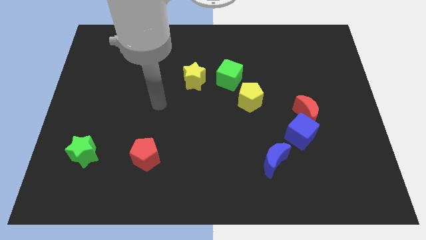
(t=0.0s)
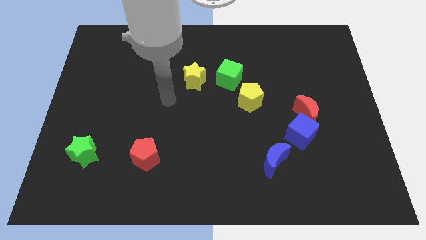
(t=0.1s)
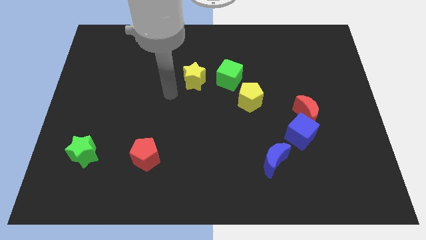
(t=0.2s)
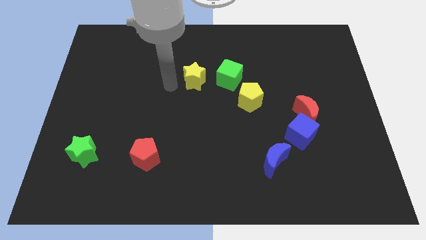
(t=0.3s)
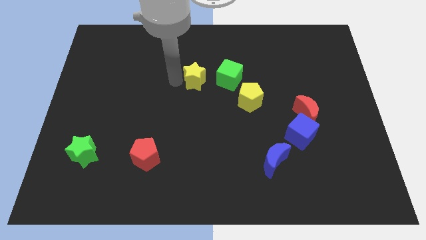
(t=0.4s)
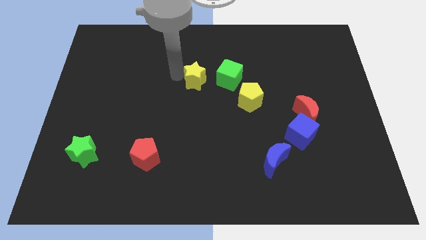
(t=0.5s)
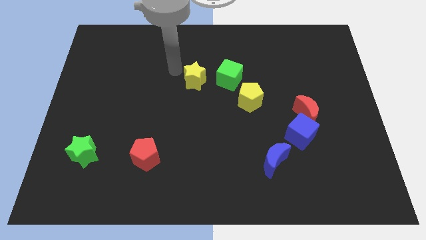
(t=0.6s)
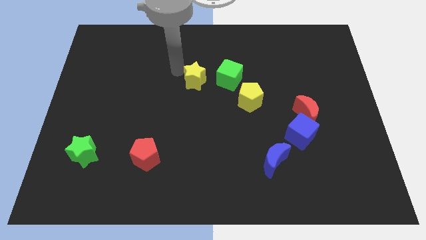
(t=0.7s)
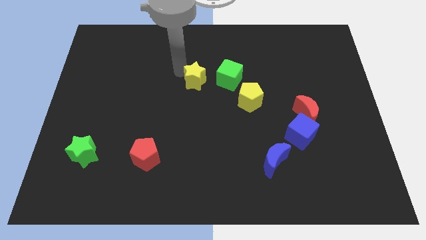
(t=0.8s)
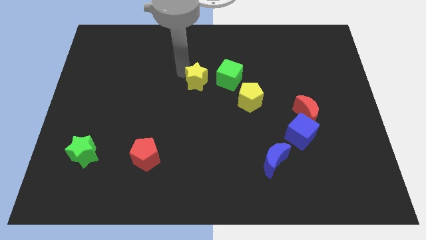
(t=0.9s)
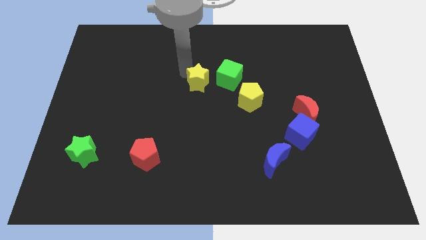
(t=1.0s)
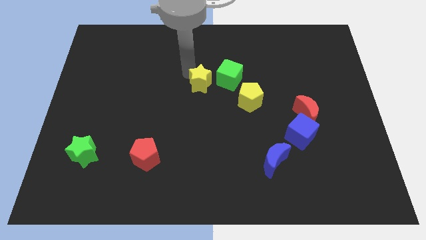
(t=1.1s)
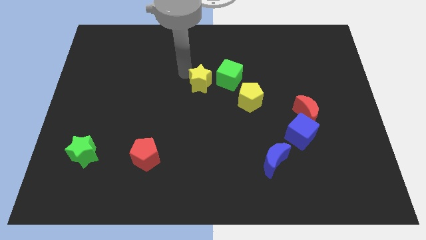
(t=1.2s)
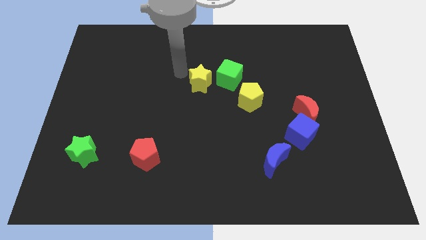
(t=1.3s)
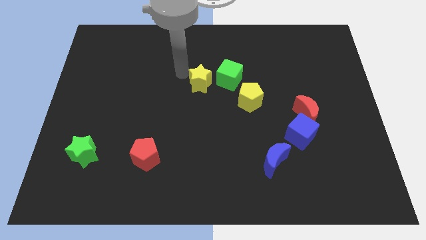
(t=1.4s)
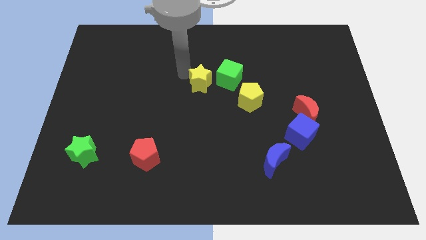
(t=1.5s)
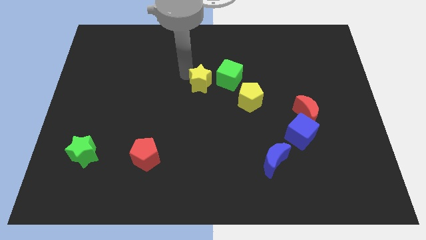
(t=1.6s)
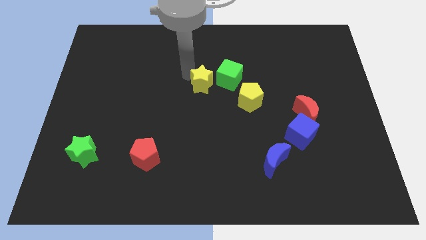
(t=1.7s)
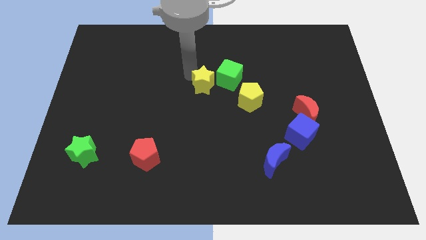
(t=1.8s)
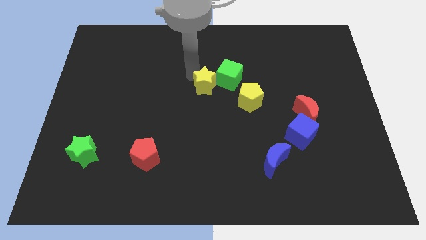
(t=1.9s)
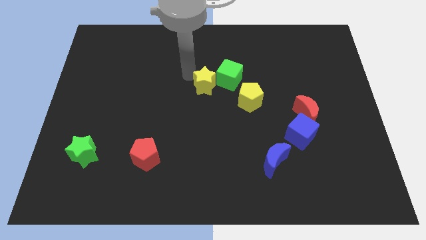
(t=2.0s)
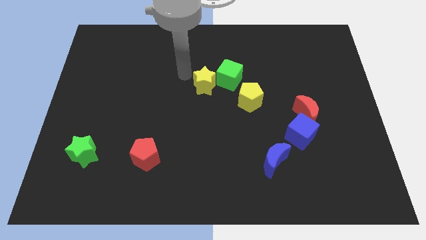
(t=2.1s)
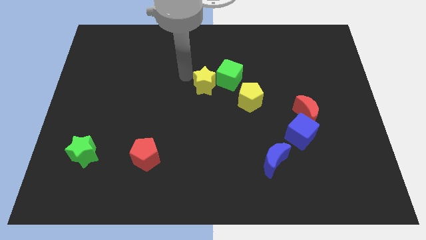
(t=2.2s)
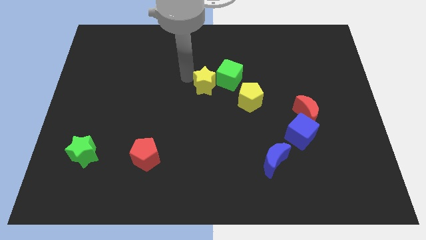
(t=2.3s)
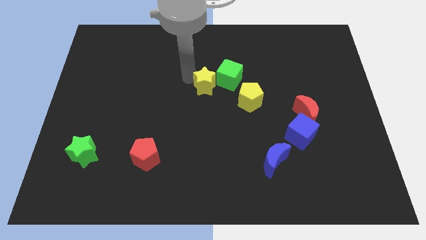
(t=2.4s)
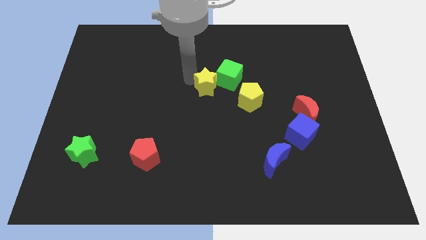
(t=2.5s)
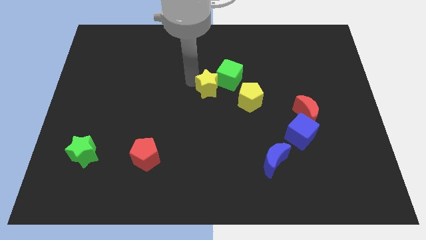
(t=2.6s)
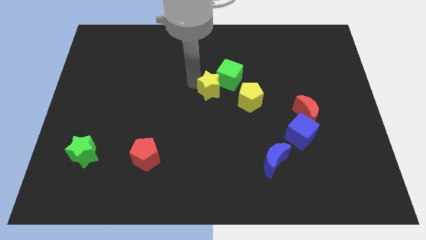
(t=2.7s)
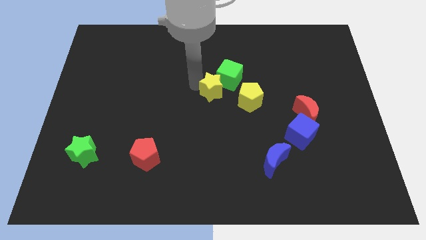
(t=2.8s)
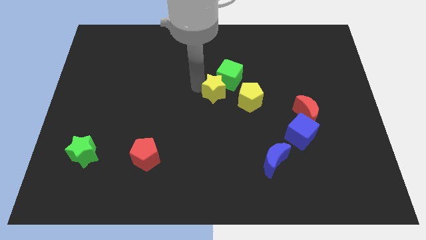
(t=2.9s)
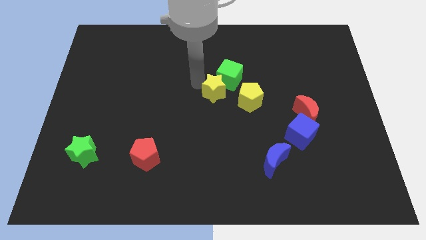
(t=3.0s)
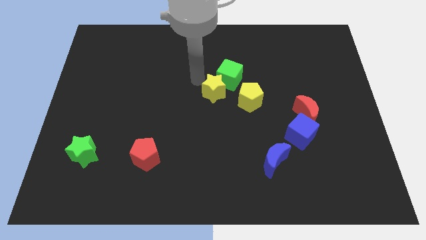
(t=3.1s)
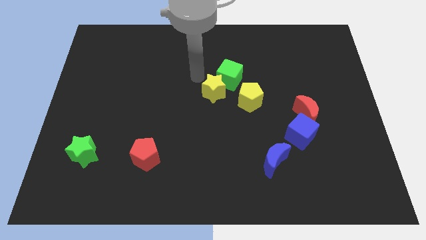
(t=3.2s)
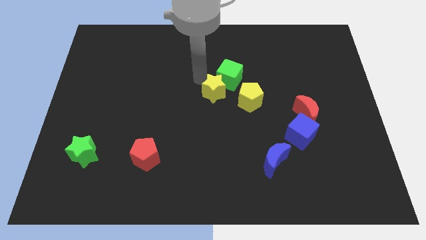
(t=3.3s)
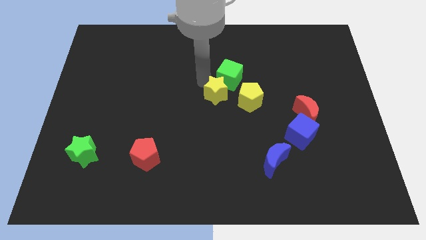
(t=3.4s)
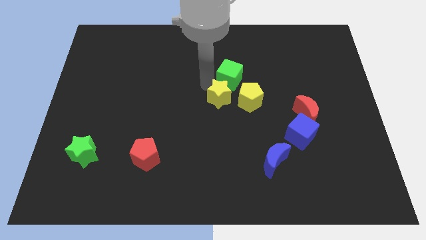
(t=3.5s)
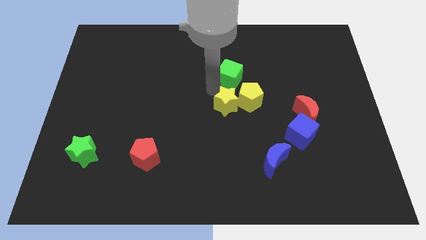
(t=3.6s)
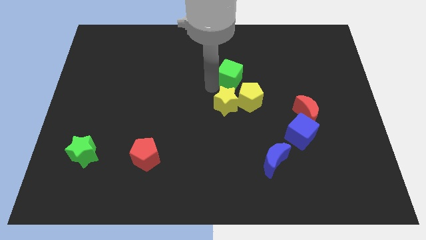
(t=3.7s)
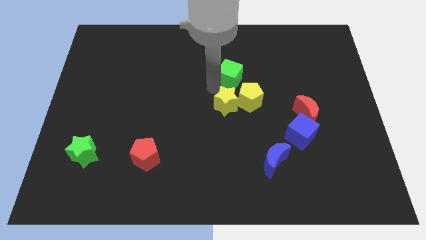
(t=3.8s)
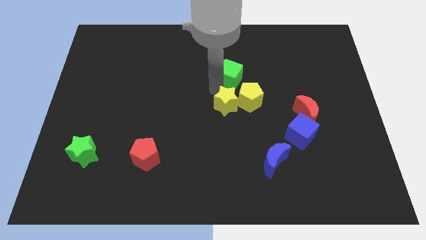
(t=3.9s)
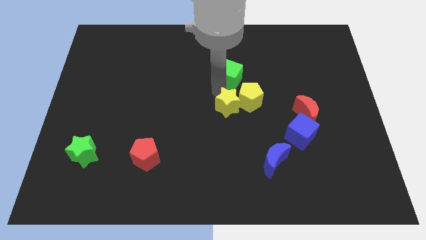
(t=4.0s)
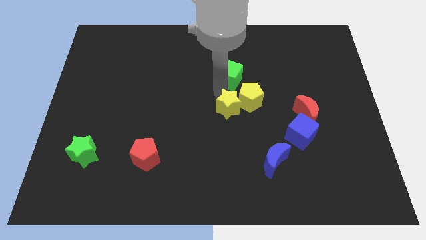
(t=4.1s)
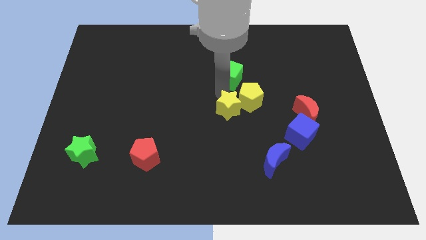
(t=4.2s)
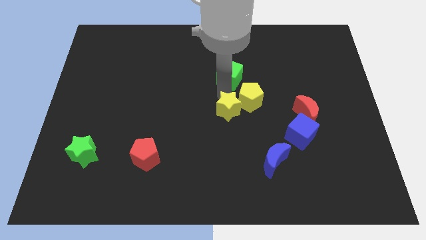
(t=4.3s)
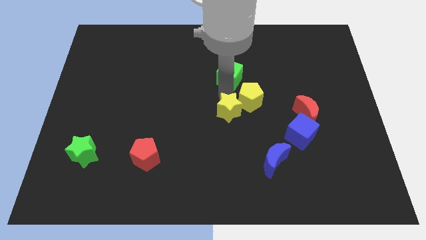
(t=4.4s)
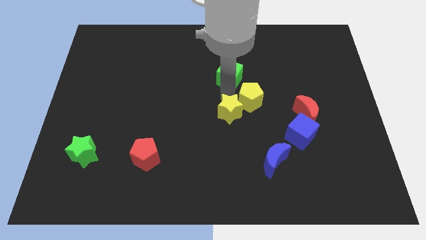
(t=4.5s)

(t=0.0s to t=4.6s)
move the yellow star to the bottom of the yellow pentagon

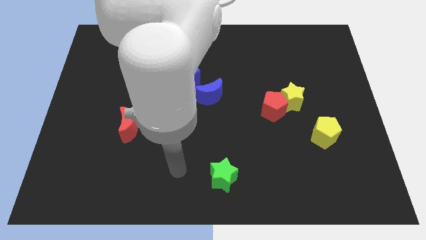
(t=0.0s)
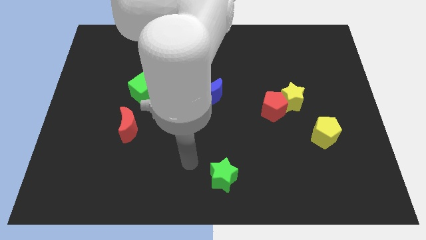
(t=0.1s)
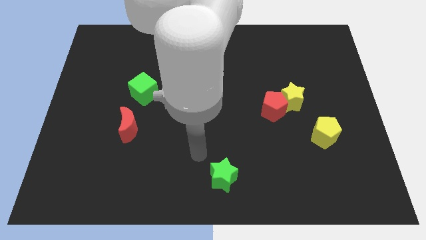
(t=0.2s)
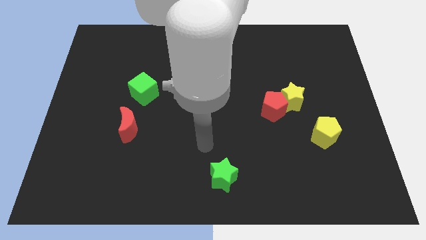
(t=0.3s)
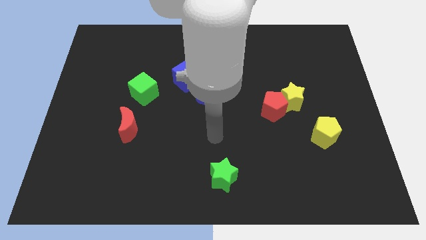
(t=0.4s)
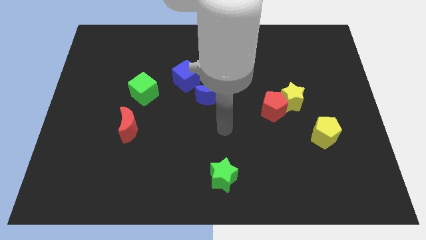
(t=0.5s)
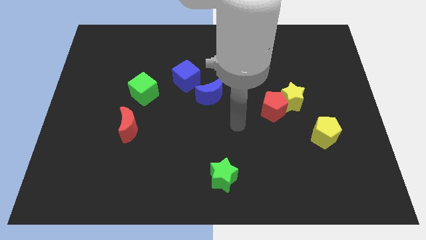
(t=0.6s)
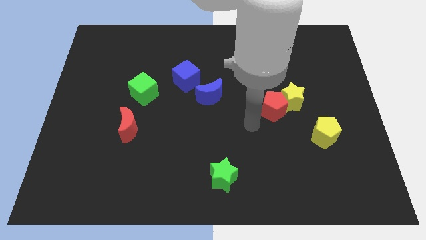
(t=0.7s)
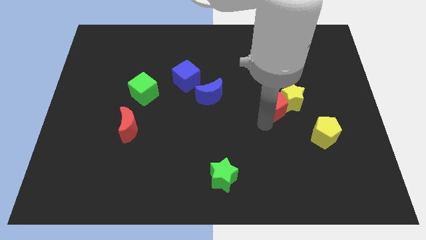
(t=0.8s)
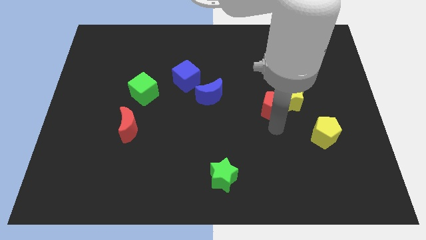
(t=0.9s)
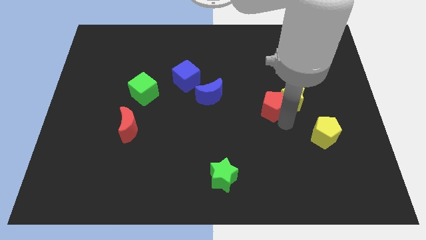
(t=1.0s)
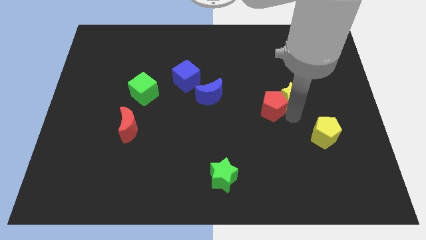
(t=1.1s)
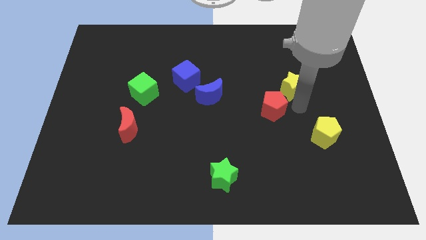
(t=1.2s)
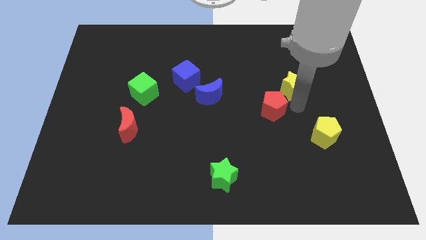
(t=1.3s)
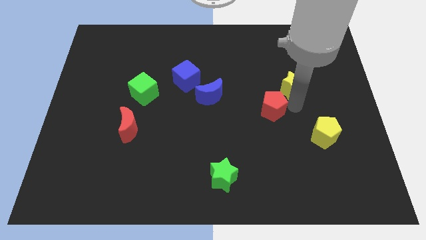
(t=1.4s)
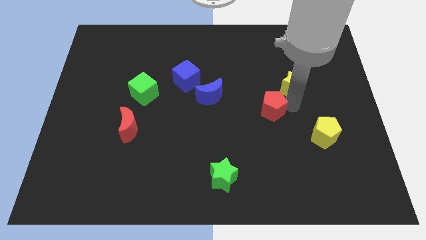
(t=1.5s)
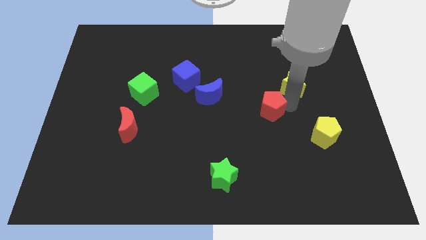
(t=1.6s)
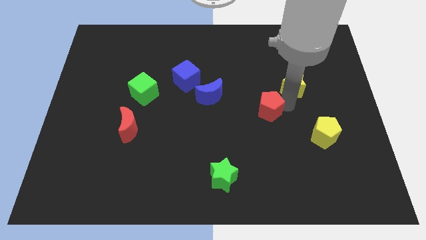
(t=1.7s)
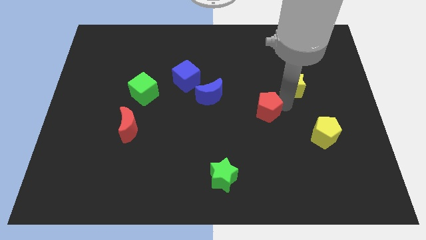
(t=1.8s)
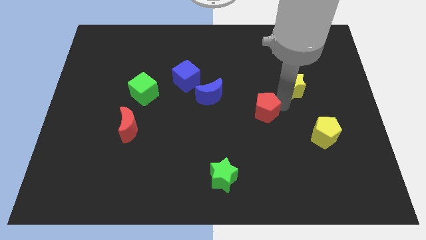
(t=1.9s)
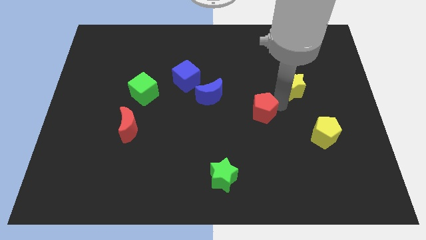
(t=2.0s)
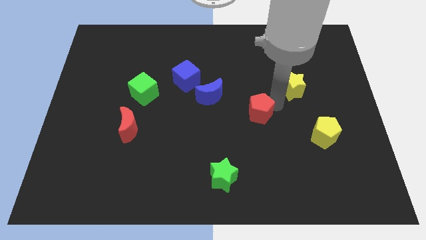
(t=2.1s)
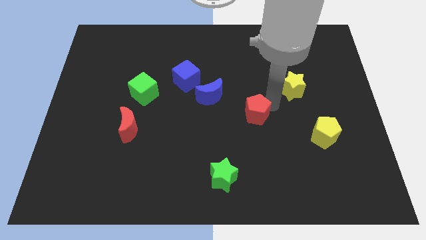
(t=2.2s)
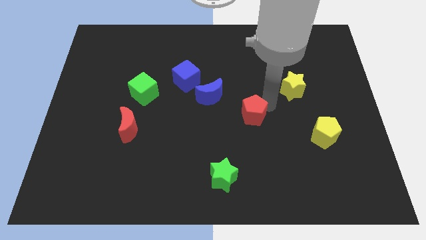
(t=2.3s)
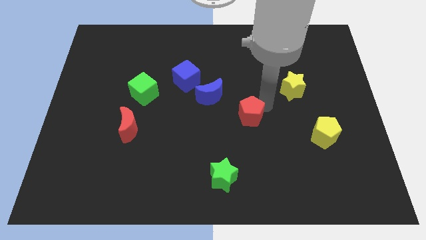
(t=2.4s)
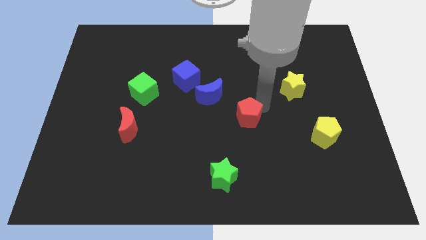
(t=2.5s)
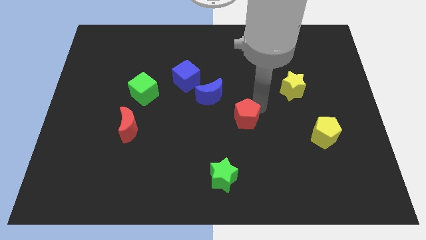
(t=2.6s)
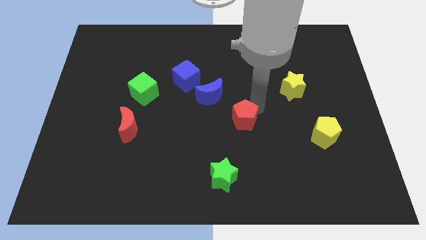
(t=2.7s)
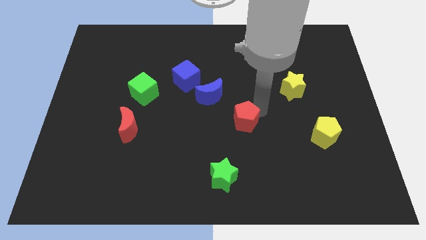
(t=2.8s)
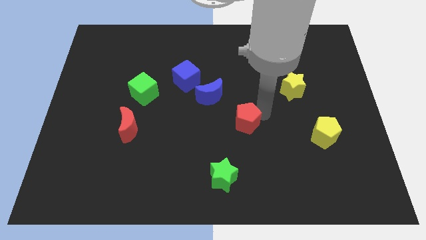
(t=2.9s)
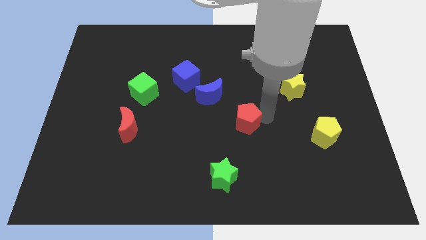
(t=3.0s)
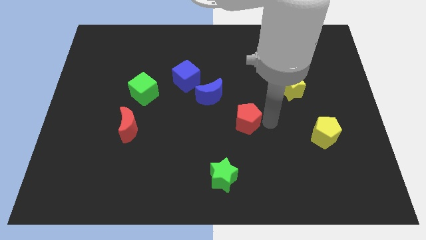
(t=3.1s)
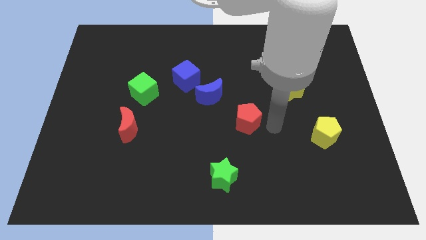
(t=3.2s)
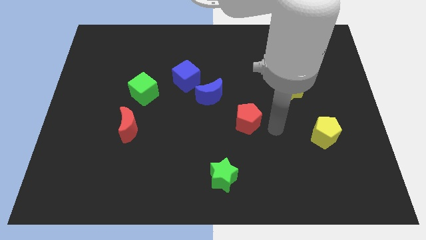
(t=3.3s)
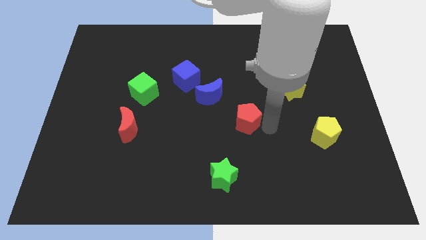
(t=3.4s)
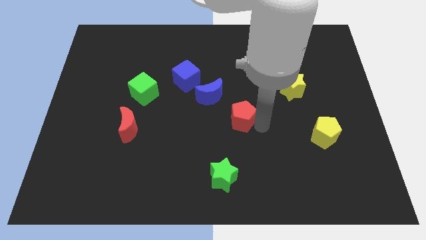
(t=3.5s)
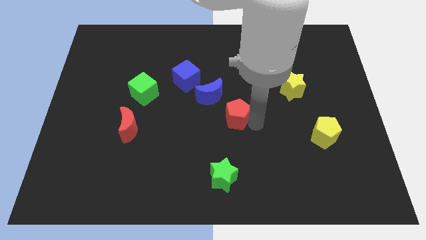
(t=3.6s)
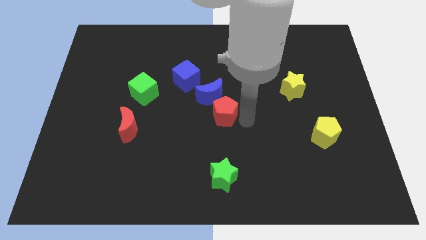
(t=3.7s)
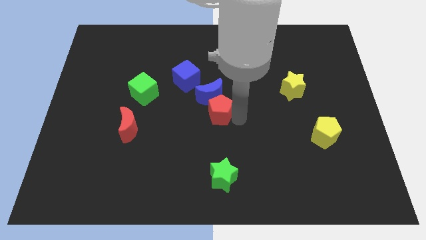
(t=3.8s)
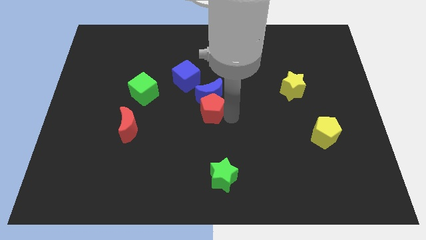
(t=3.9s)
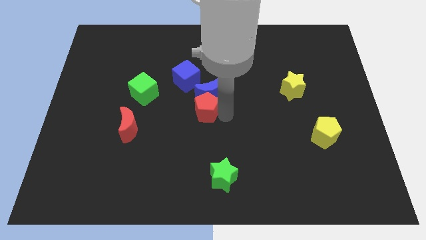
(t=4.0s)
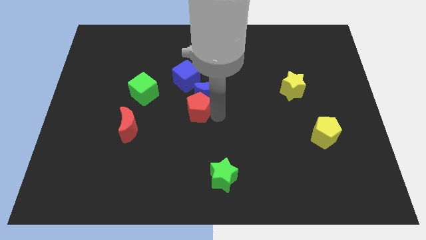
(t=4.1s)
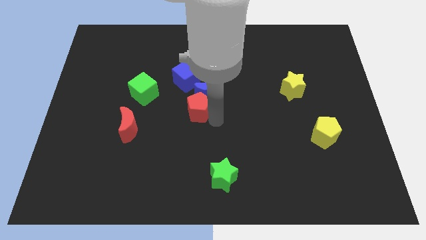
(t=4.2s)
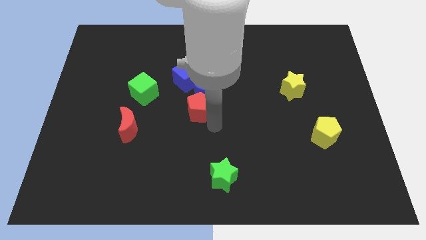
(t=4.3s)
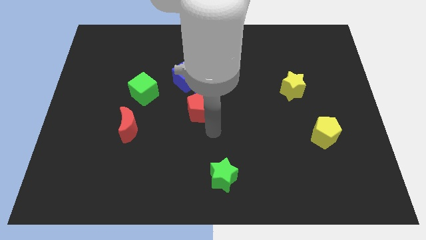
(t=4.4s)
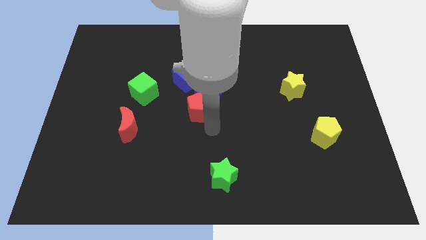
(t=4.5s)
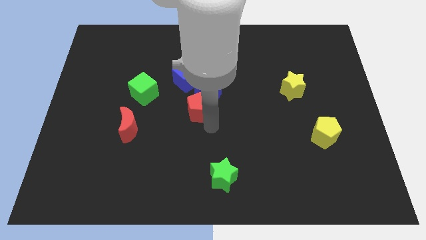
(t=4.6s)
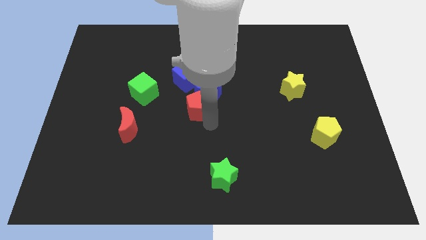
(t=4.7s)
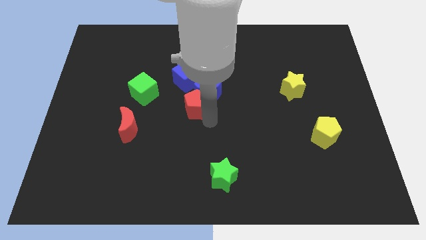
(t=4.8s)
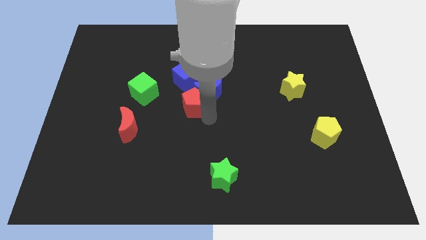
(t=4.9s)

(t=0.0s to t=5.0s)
slide the red pentagon right of the green cube
